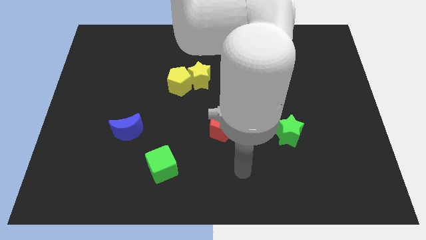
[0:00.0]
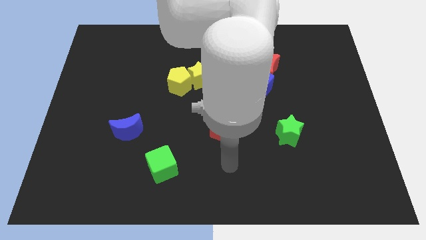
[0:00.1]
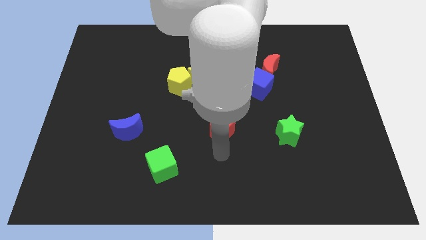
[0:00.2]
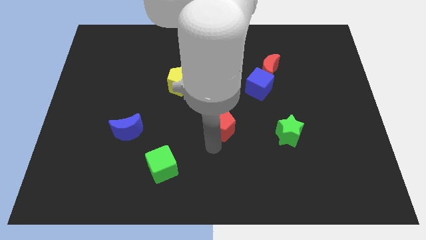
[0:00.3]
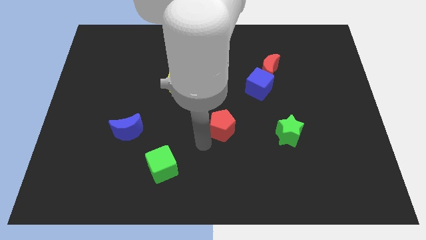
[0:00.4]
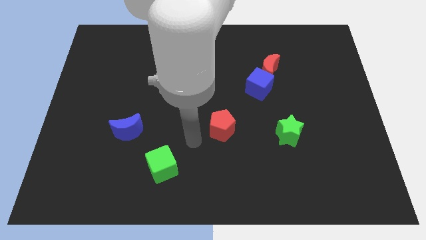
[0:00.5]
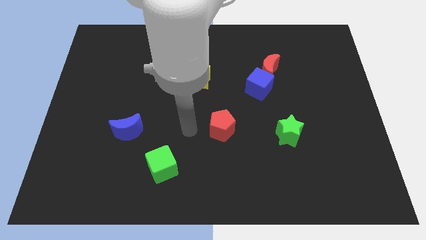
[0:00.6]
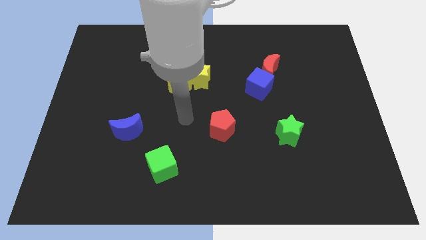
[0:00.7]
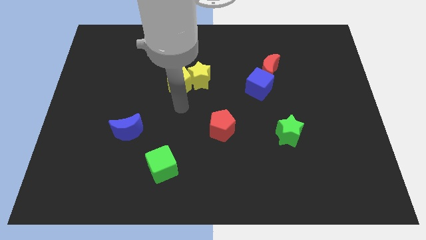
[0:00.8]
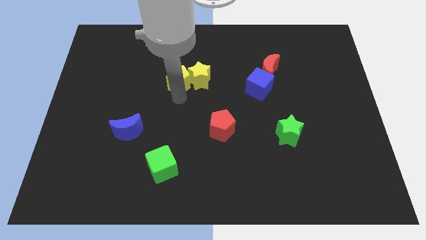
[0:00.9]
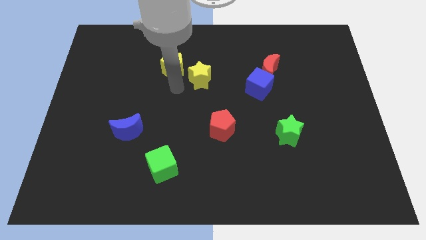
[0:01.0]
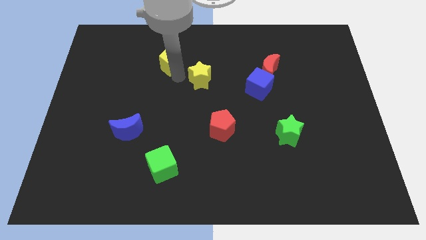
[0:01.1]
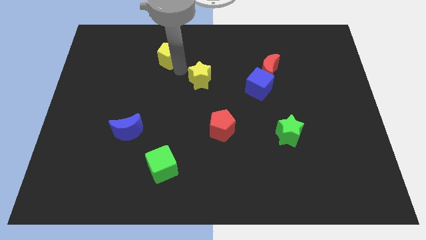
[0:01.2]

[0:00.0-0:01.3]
move the yellow star away from the yellow pentagon

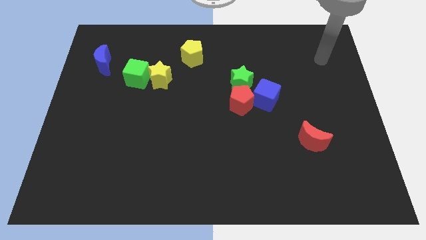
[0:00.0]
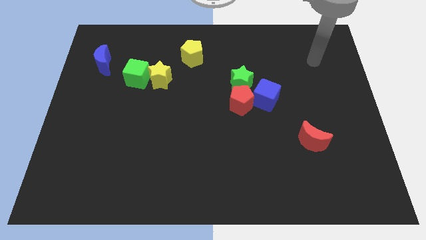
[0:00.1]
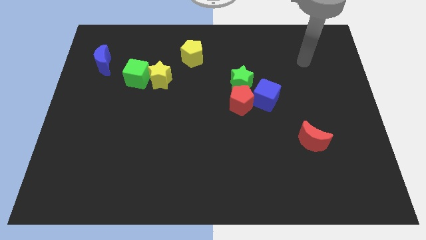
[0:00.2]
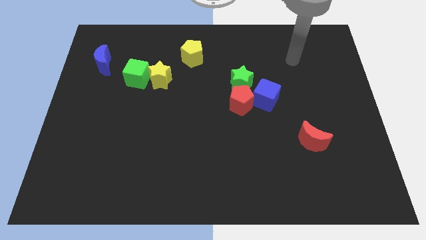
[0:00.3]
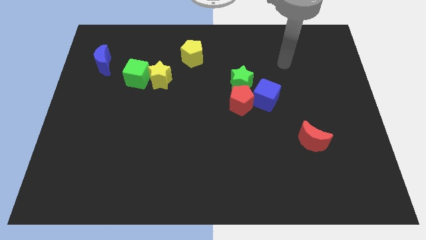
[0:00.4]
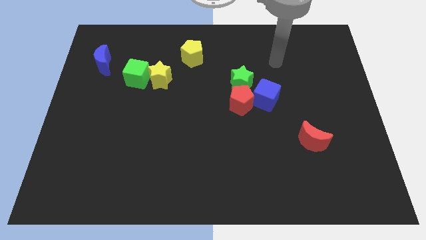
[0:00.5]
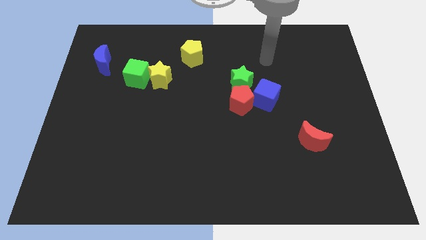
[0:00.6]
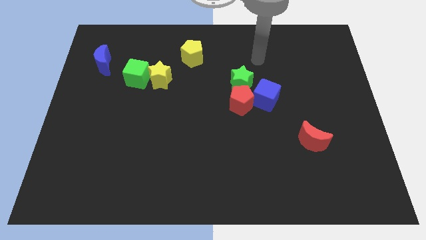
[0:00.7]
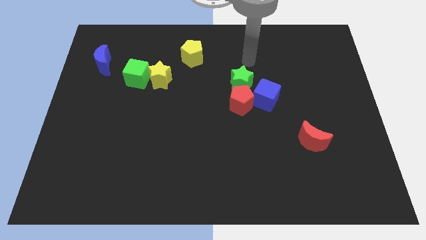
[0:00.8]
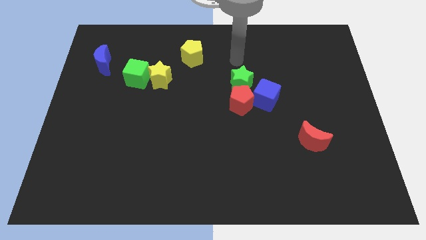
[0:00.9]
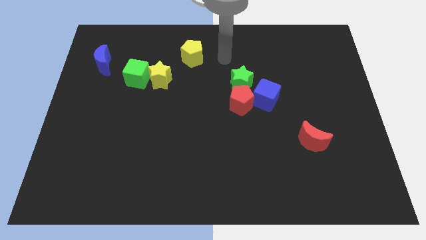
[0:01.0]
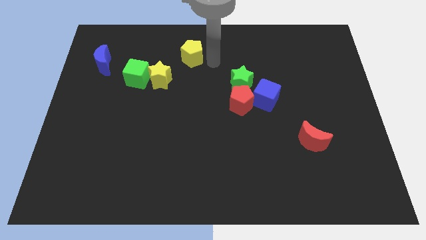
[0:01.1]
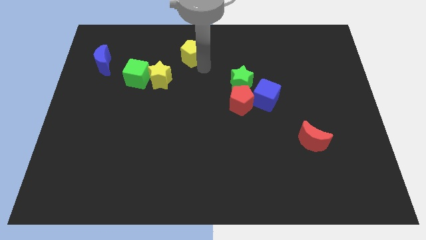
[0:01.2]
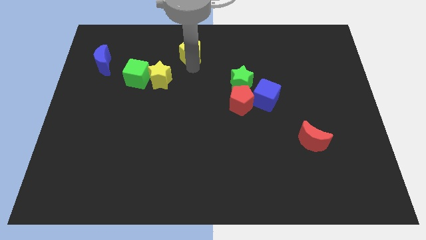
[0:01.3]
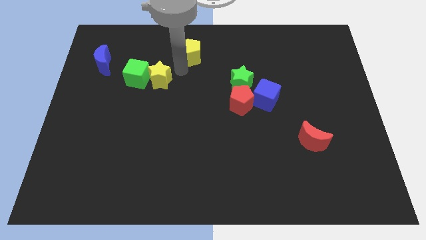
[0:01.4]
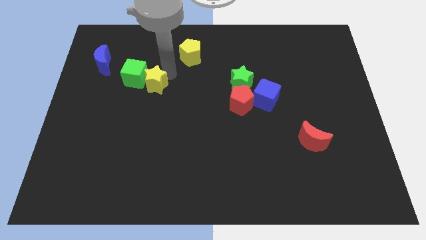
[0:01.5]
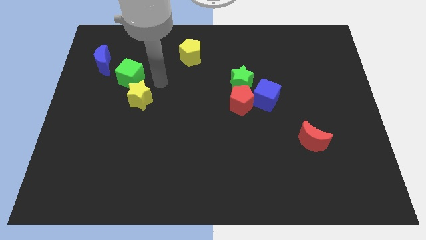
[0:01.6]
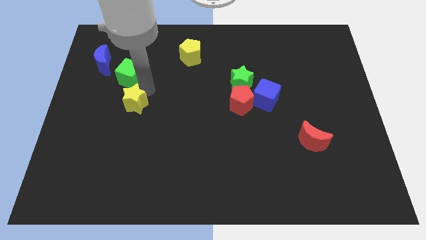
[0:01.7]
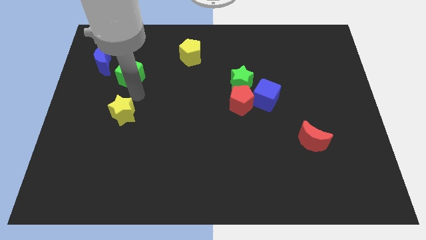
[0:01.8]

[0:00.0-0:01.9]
separate the green cube from the yellow star

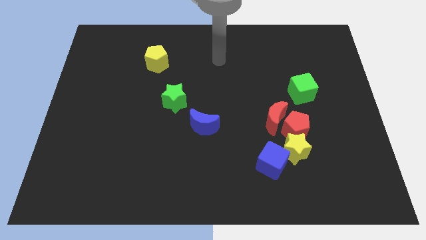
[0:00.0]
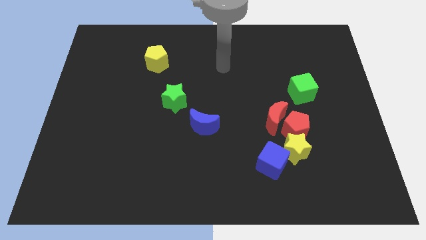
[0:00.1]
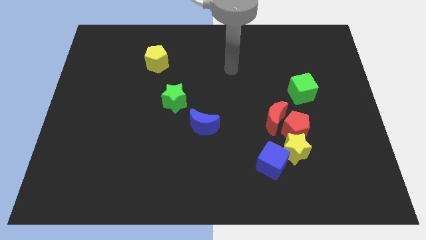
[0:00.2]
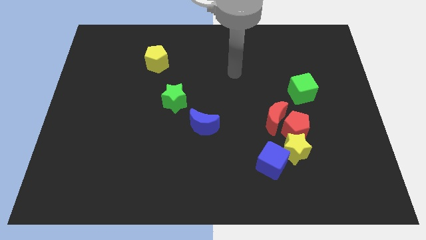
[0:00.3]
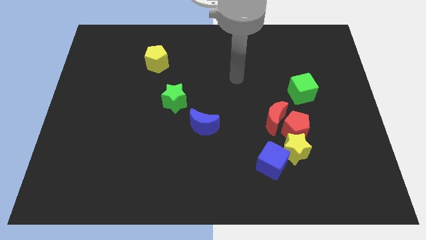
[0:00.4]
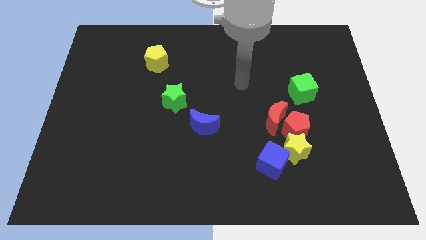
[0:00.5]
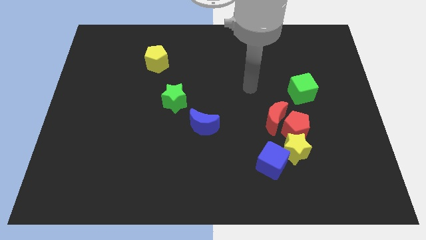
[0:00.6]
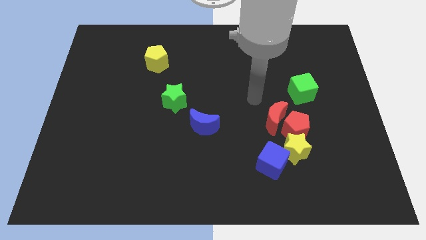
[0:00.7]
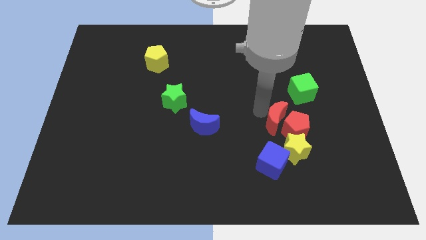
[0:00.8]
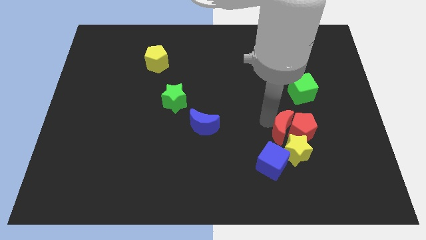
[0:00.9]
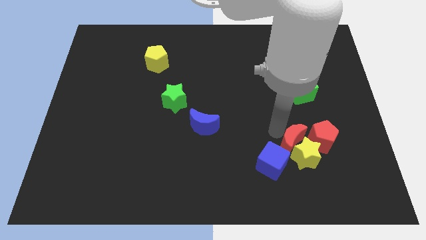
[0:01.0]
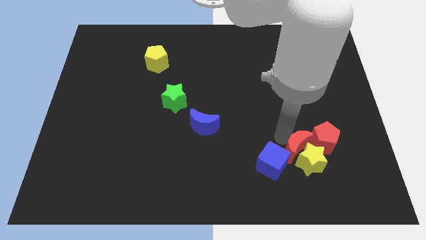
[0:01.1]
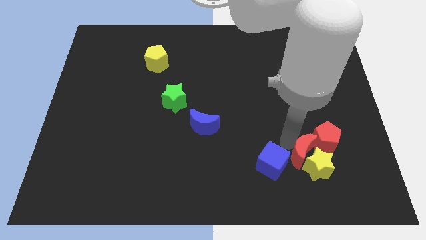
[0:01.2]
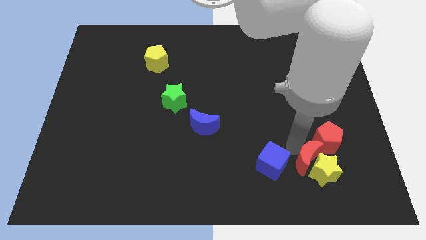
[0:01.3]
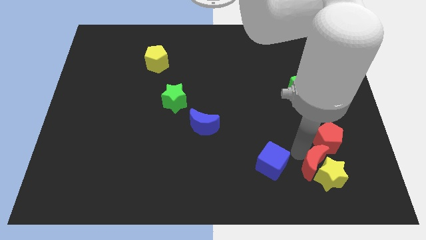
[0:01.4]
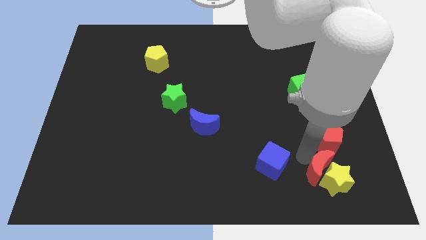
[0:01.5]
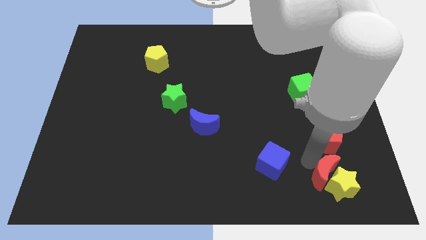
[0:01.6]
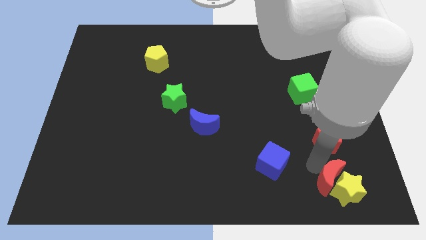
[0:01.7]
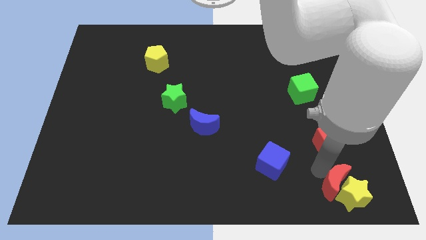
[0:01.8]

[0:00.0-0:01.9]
separate the yellow star from the blue cube, red pentagon, and red moon

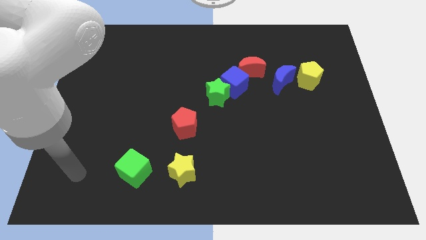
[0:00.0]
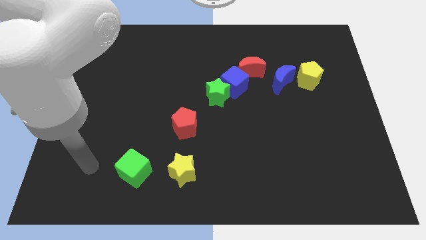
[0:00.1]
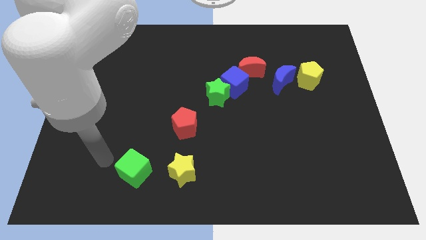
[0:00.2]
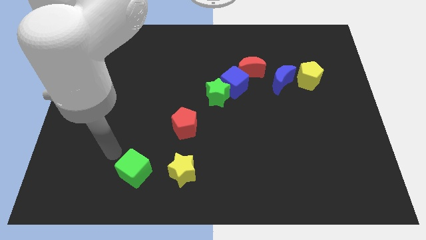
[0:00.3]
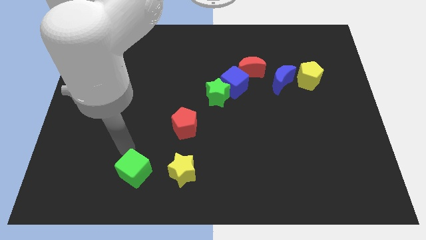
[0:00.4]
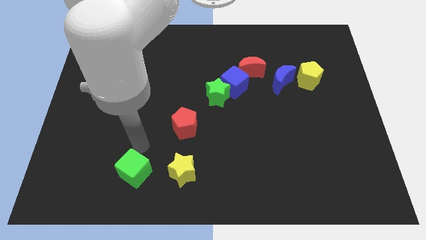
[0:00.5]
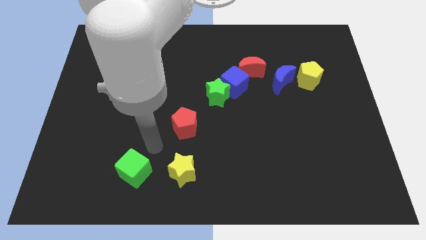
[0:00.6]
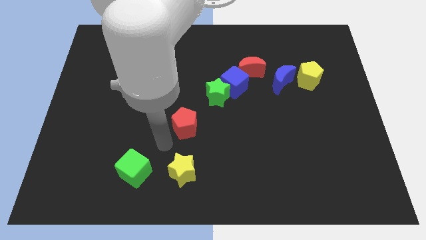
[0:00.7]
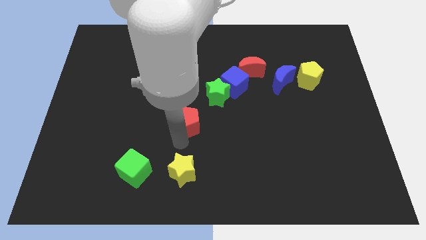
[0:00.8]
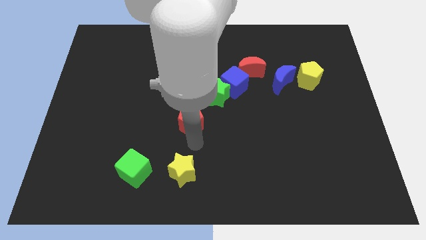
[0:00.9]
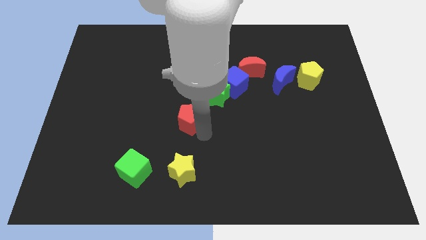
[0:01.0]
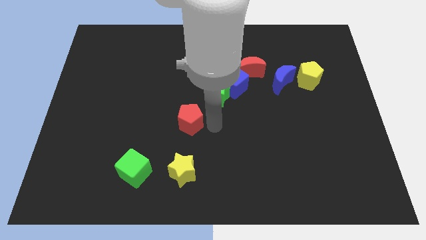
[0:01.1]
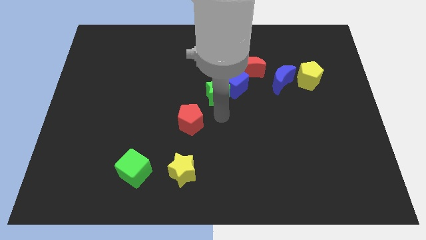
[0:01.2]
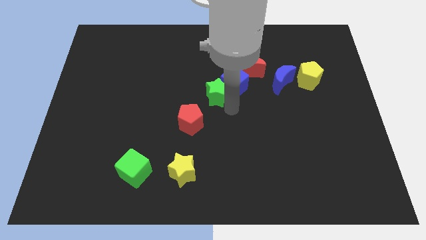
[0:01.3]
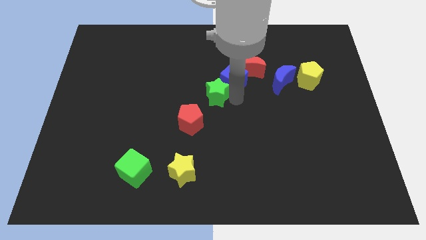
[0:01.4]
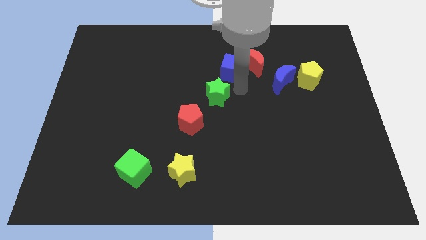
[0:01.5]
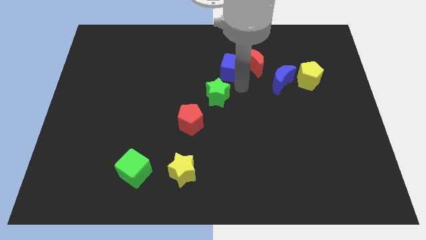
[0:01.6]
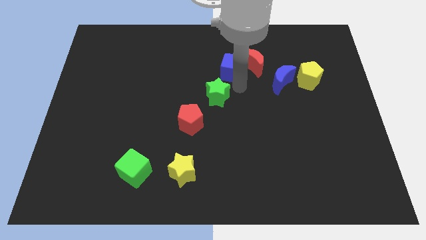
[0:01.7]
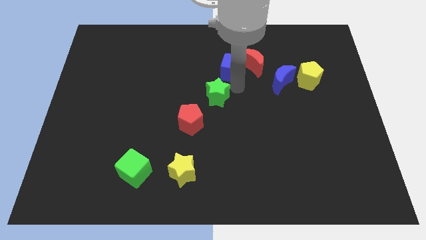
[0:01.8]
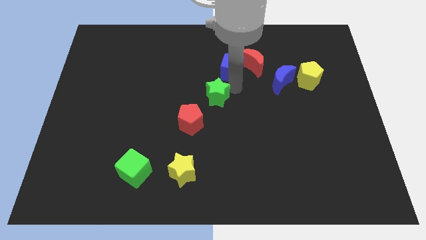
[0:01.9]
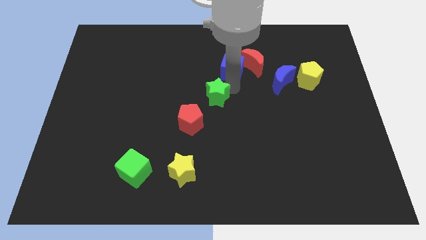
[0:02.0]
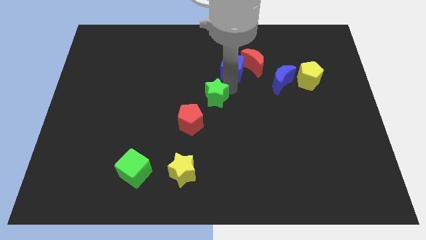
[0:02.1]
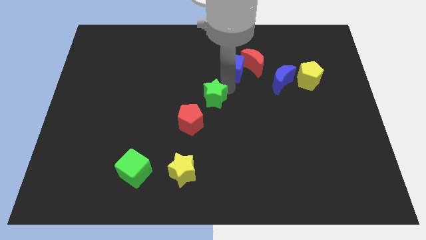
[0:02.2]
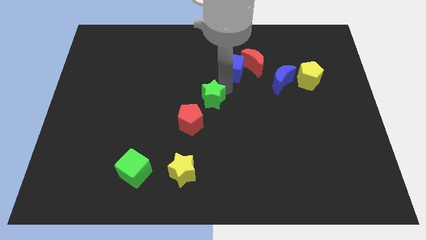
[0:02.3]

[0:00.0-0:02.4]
move the green star away from the blue cube

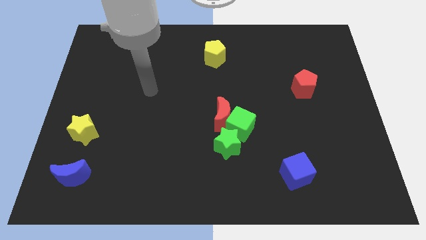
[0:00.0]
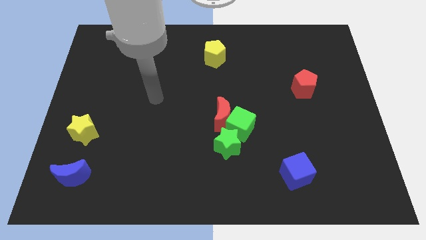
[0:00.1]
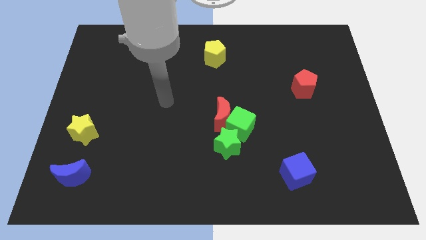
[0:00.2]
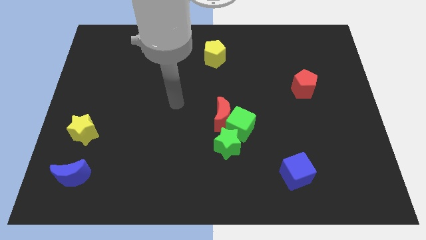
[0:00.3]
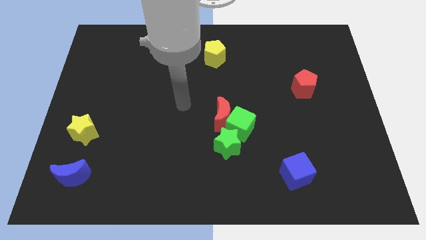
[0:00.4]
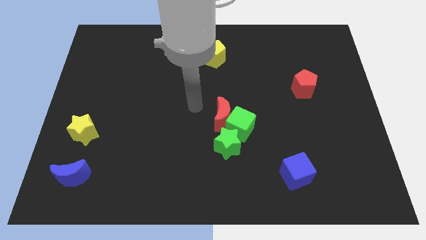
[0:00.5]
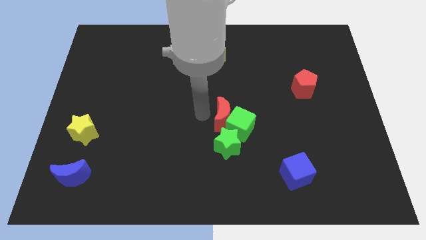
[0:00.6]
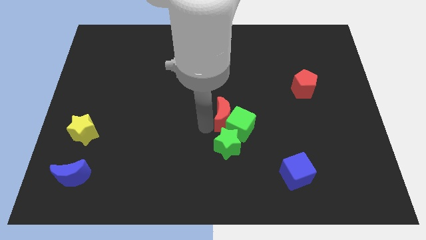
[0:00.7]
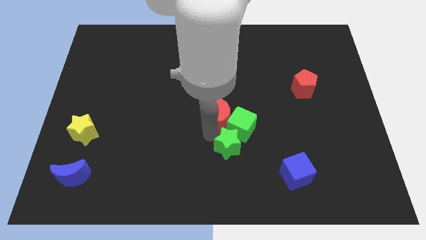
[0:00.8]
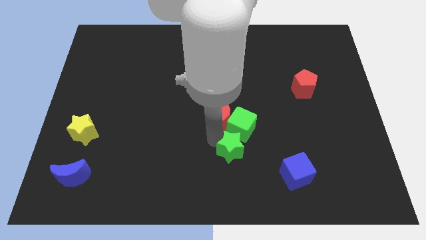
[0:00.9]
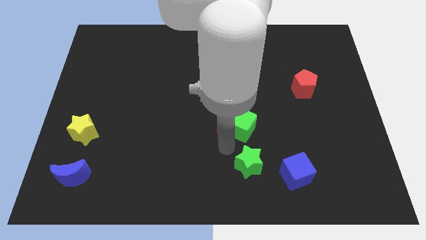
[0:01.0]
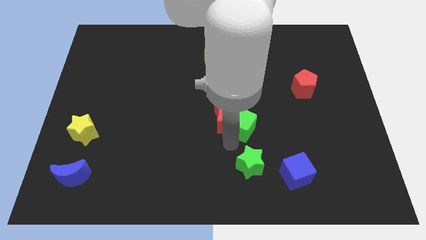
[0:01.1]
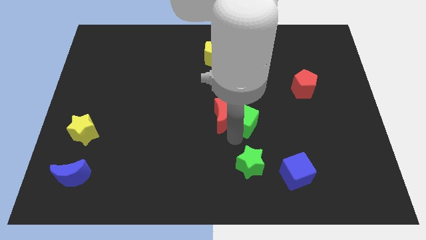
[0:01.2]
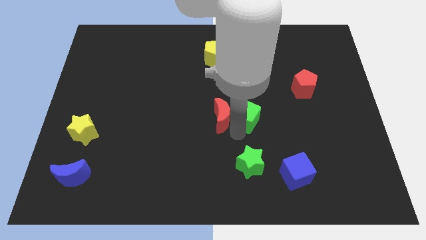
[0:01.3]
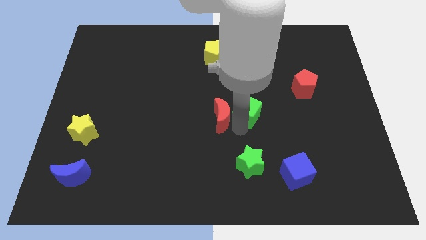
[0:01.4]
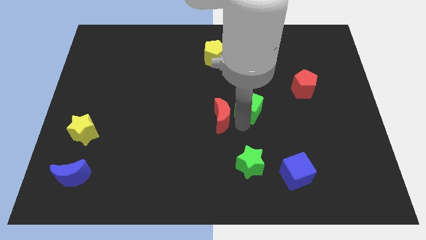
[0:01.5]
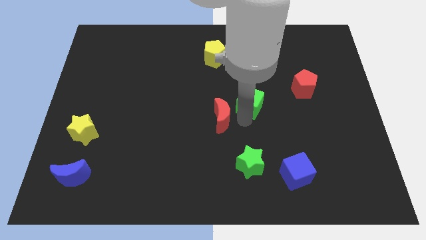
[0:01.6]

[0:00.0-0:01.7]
pull the green cube apart from the red moon and green star
